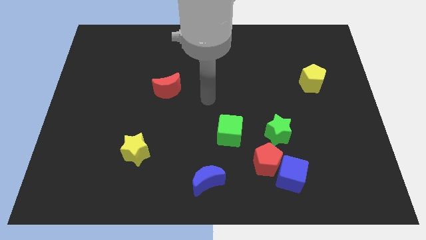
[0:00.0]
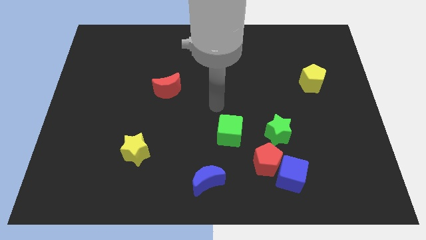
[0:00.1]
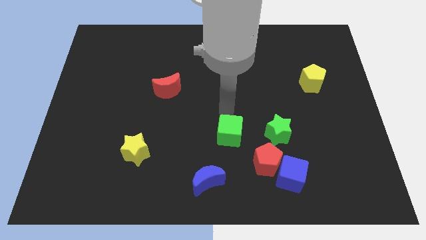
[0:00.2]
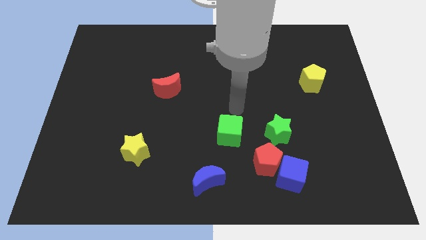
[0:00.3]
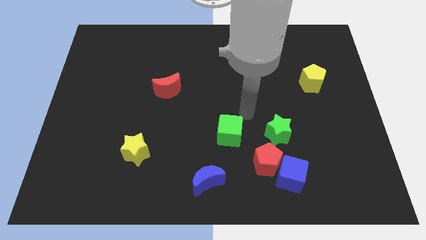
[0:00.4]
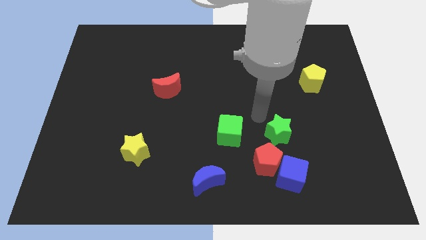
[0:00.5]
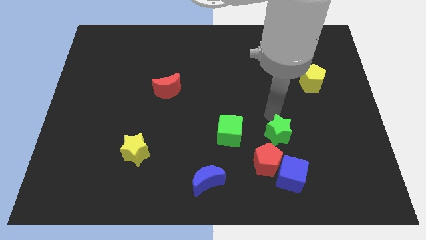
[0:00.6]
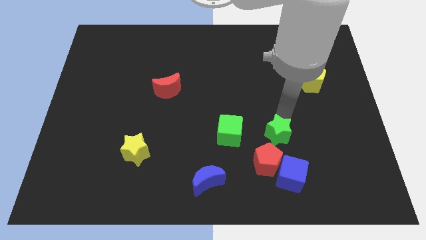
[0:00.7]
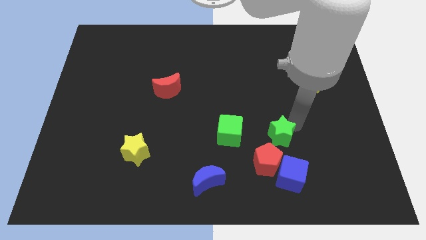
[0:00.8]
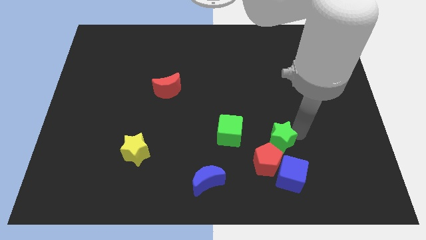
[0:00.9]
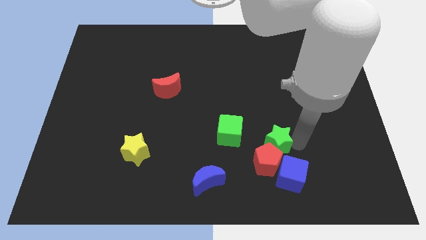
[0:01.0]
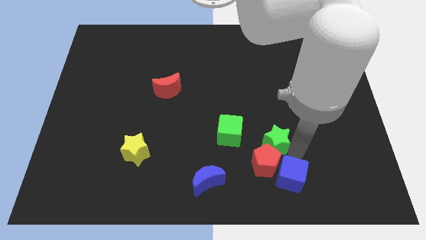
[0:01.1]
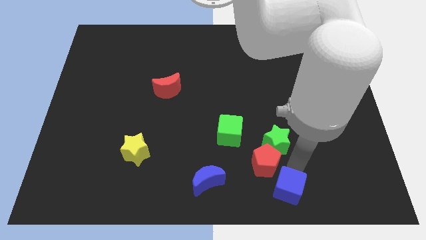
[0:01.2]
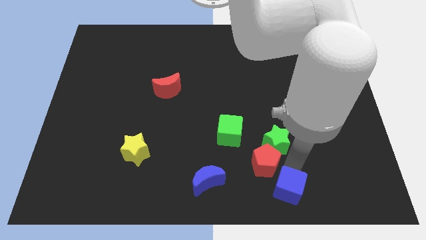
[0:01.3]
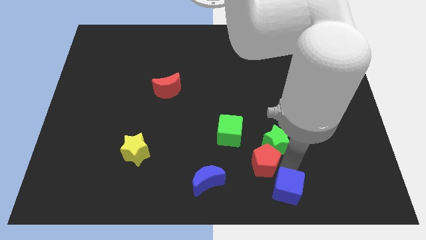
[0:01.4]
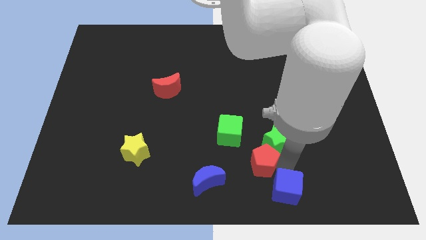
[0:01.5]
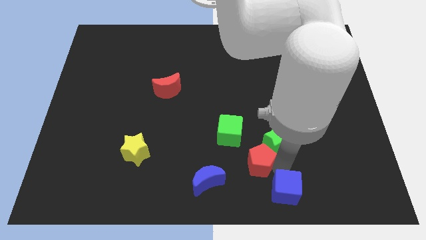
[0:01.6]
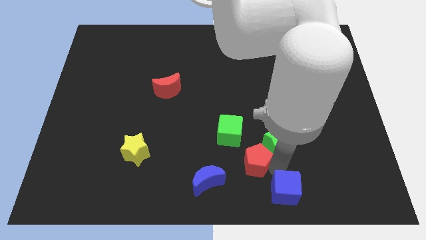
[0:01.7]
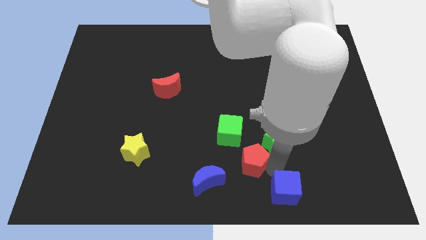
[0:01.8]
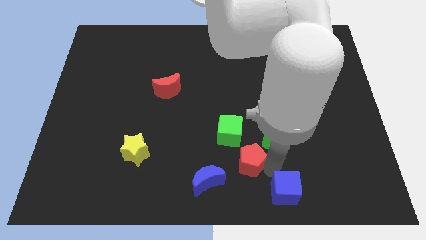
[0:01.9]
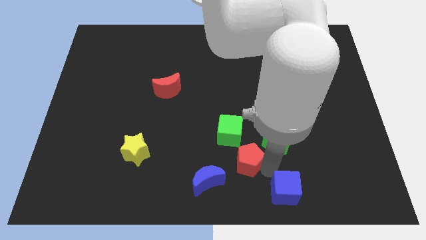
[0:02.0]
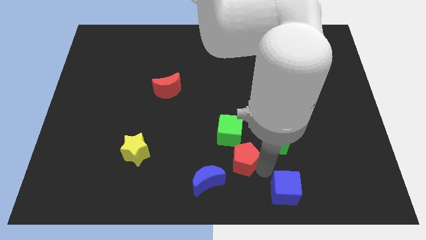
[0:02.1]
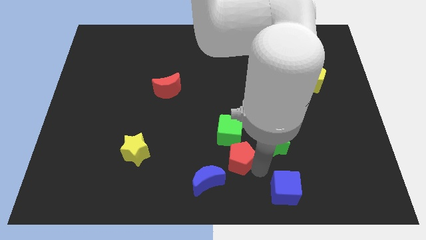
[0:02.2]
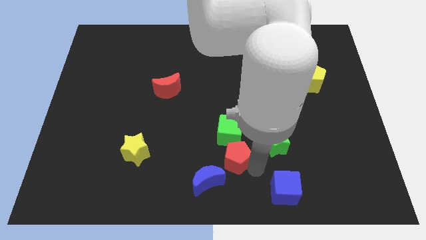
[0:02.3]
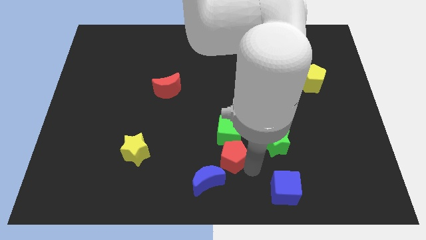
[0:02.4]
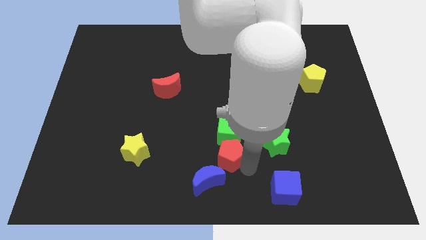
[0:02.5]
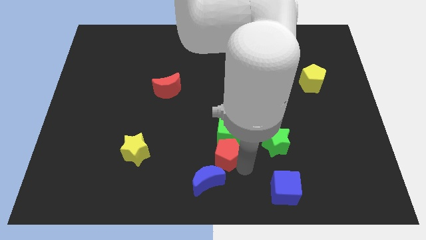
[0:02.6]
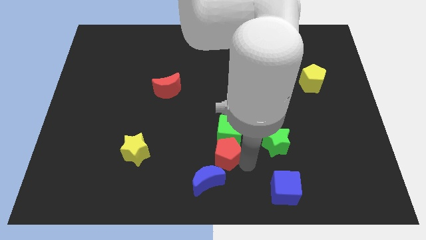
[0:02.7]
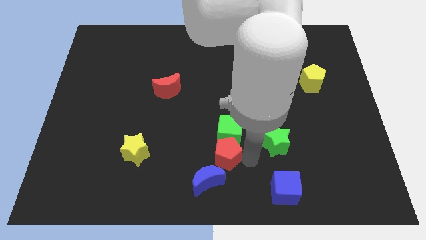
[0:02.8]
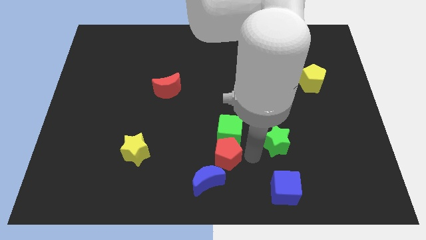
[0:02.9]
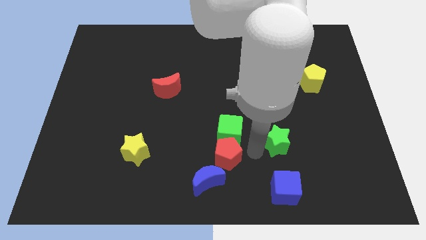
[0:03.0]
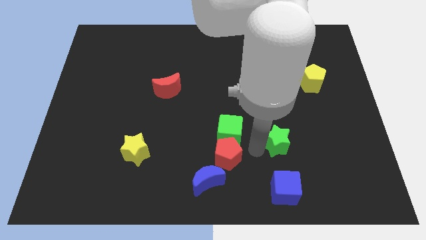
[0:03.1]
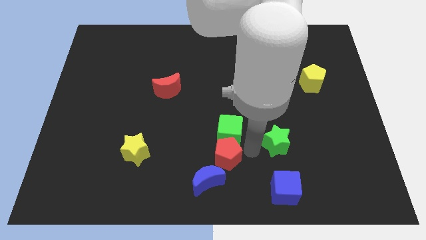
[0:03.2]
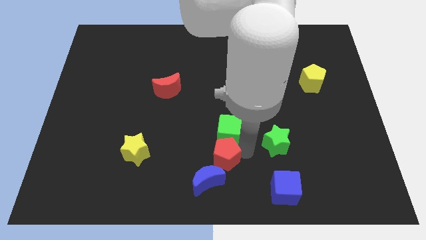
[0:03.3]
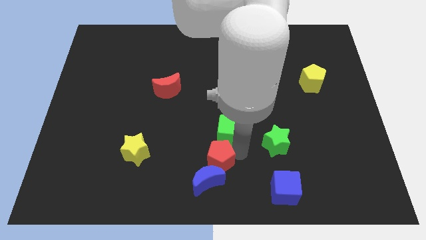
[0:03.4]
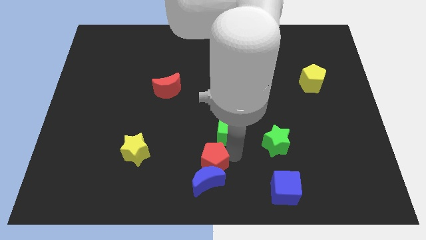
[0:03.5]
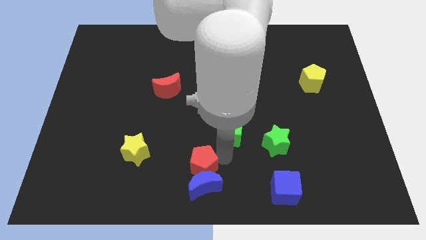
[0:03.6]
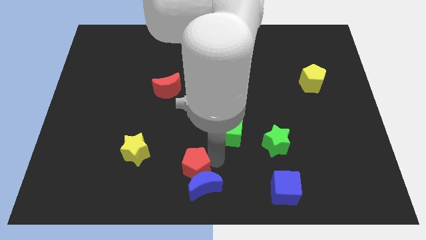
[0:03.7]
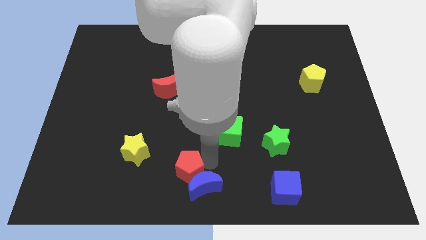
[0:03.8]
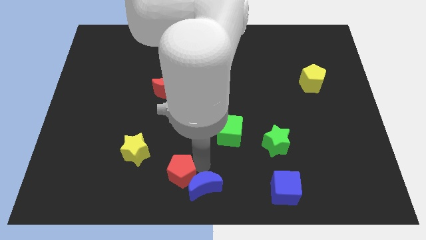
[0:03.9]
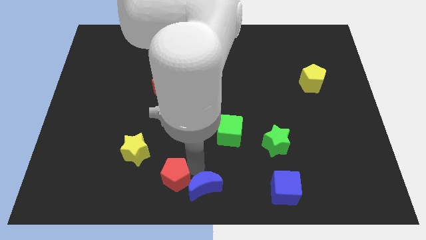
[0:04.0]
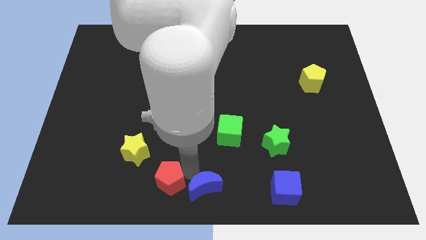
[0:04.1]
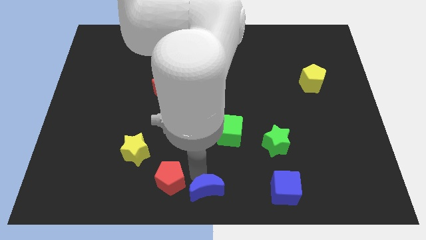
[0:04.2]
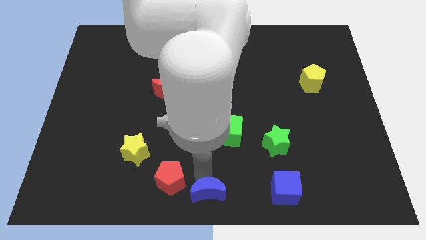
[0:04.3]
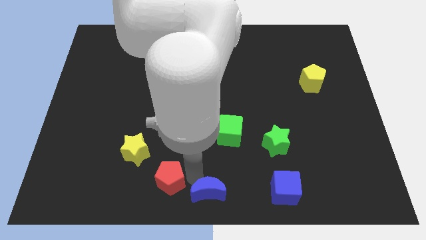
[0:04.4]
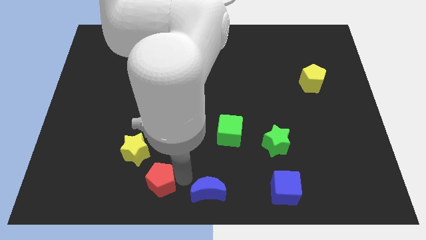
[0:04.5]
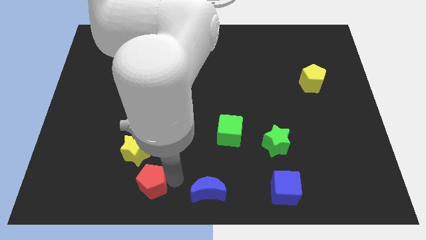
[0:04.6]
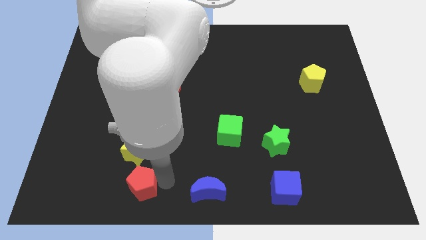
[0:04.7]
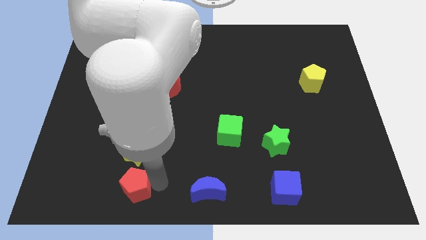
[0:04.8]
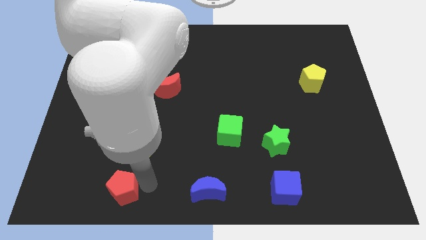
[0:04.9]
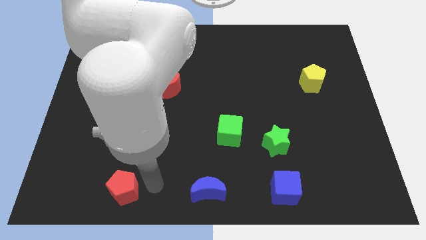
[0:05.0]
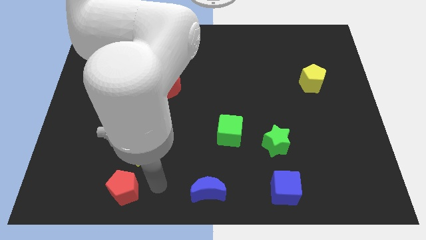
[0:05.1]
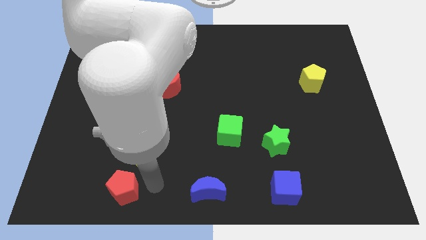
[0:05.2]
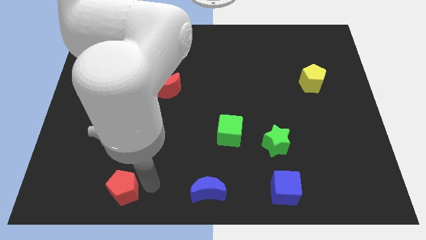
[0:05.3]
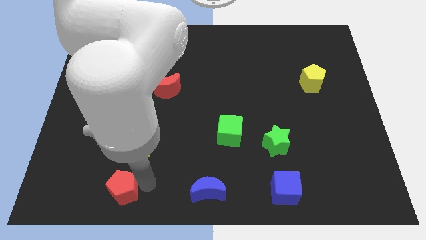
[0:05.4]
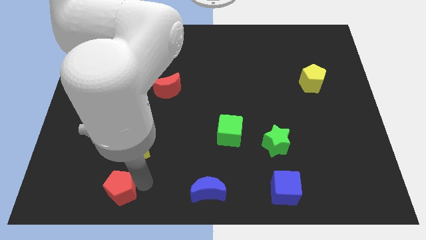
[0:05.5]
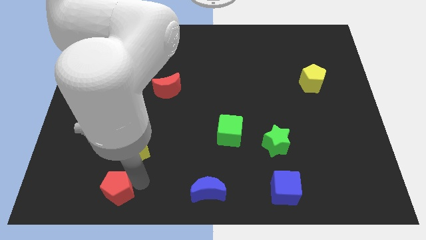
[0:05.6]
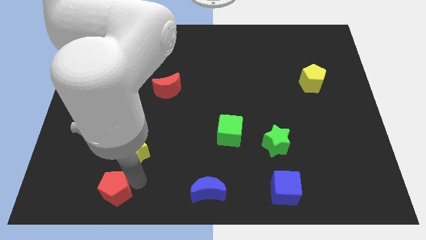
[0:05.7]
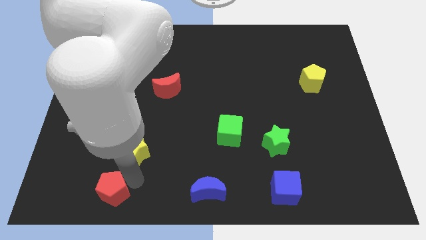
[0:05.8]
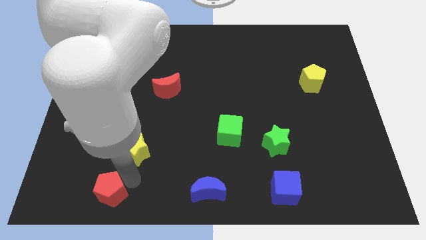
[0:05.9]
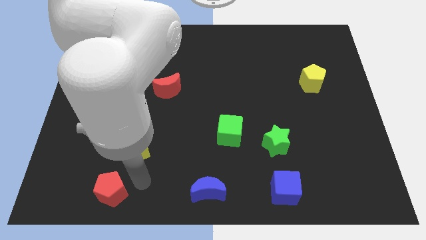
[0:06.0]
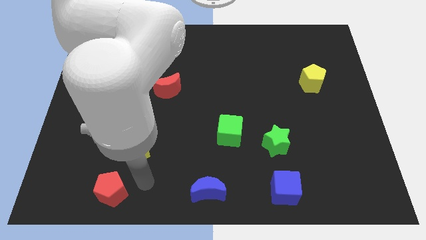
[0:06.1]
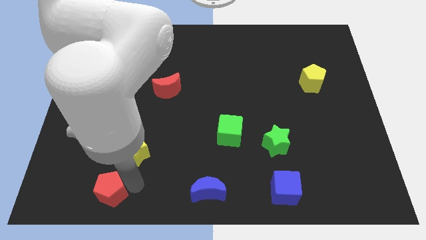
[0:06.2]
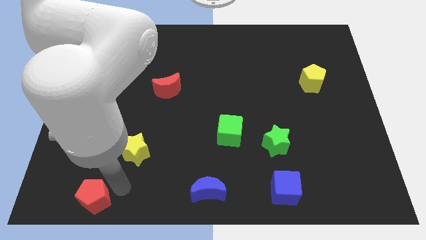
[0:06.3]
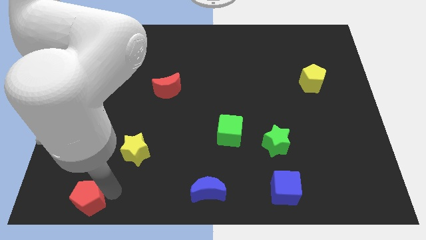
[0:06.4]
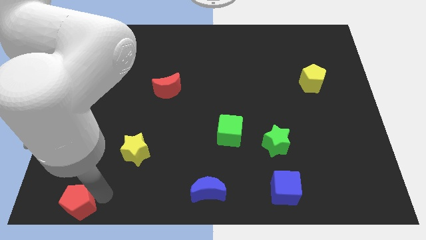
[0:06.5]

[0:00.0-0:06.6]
push the red pentagon to the lower left corner
